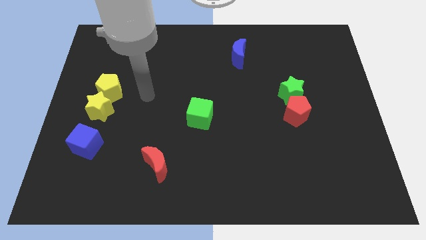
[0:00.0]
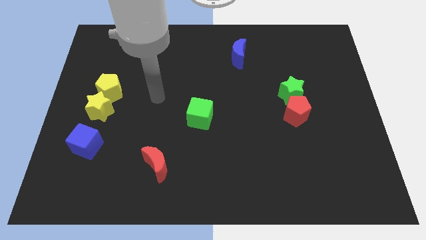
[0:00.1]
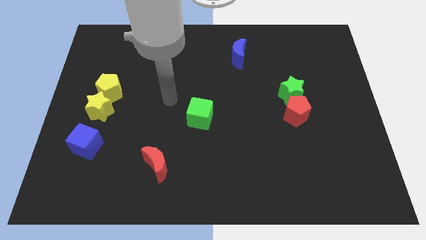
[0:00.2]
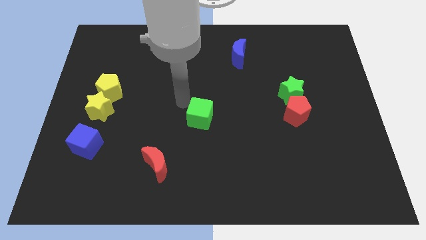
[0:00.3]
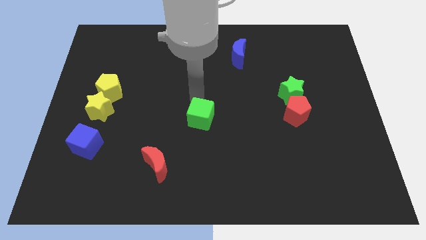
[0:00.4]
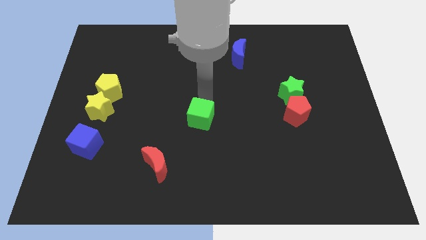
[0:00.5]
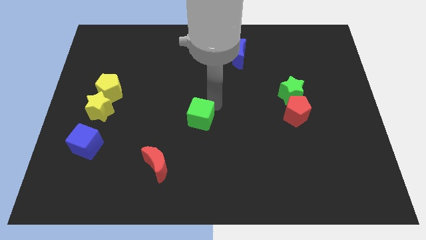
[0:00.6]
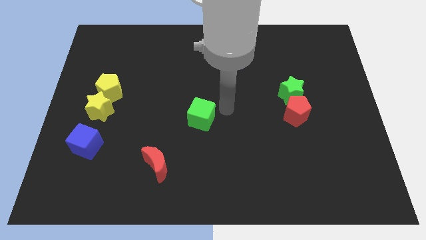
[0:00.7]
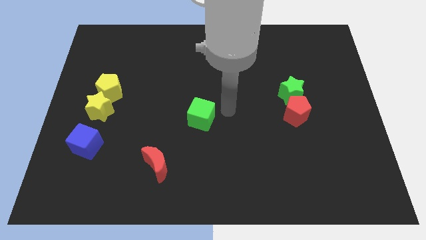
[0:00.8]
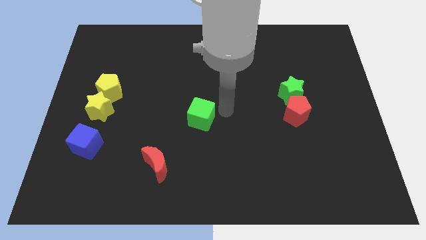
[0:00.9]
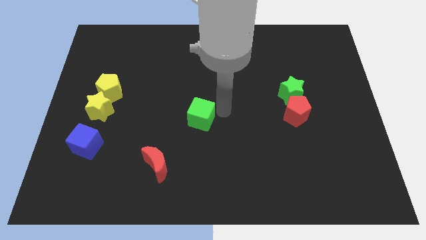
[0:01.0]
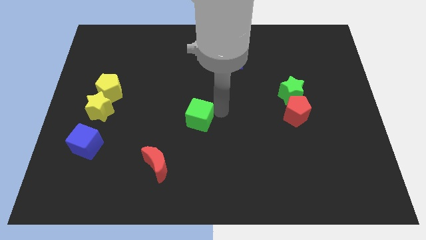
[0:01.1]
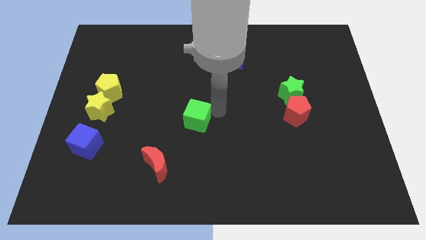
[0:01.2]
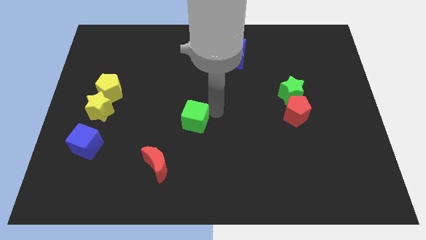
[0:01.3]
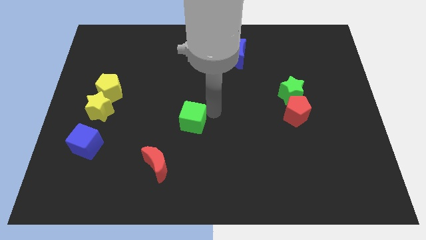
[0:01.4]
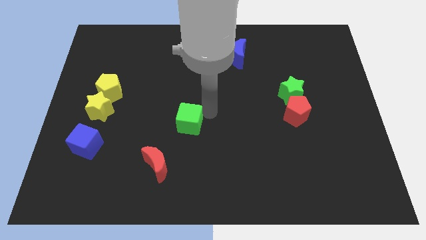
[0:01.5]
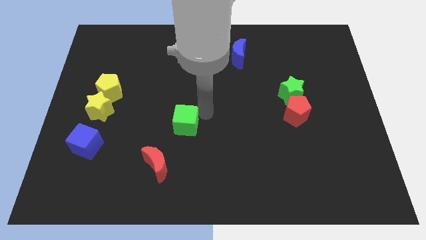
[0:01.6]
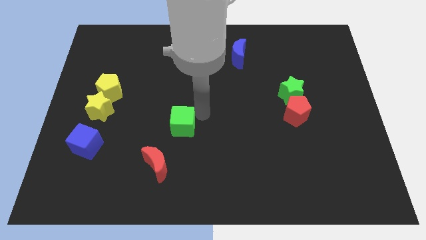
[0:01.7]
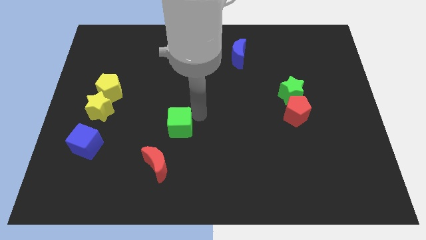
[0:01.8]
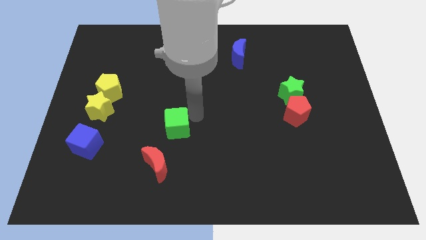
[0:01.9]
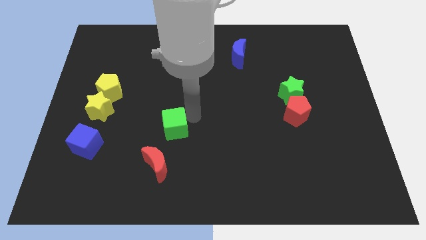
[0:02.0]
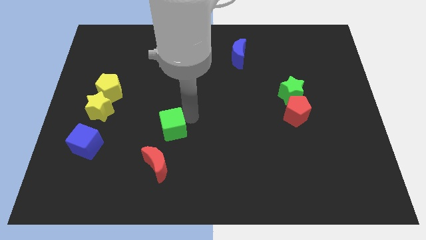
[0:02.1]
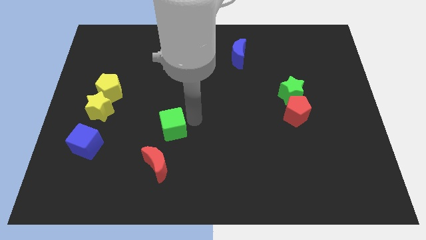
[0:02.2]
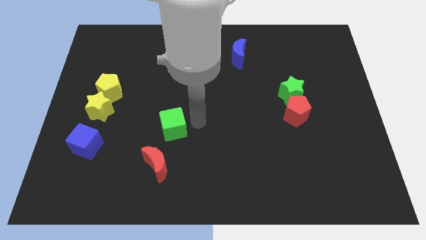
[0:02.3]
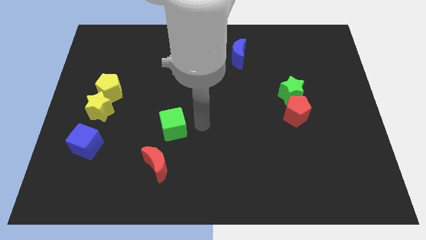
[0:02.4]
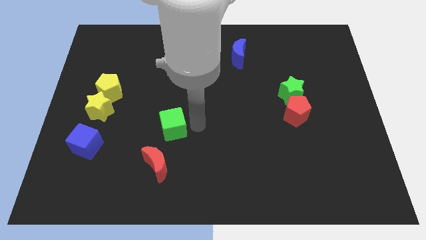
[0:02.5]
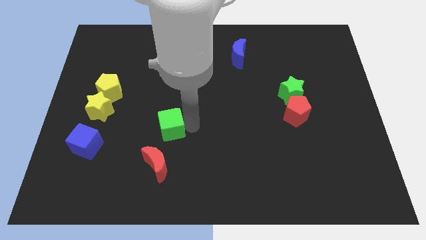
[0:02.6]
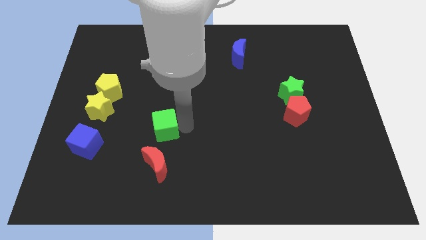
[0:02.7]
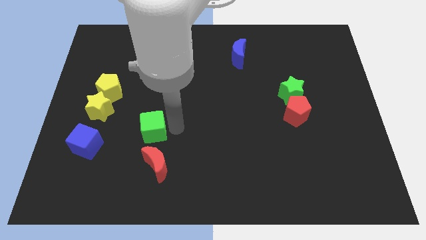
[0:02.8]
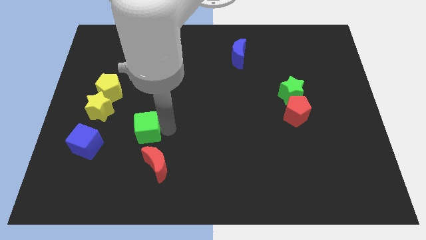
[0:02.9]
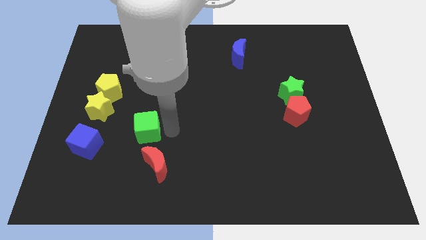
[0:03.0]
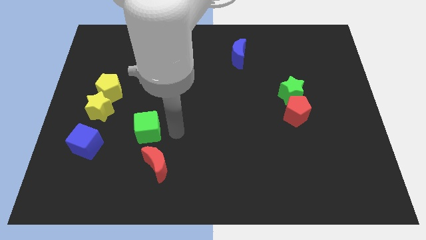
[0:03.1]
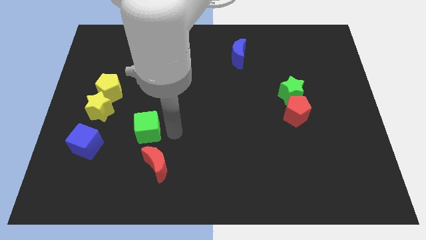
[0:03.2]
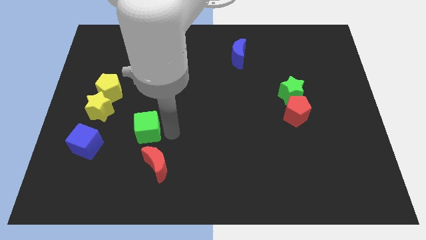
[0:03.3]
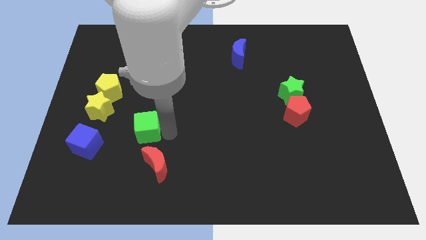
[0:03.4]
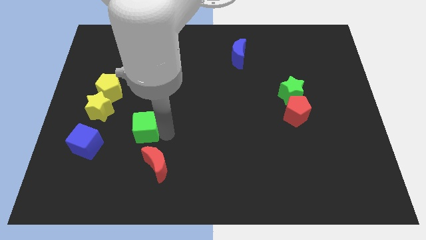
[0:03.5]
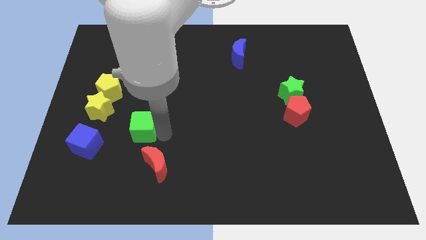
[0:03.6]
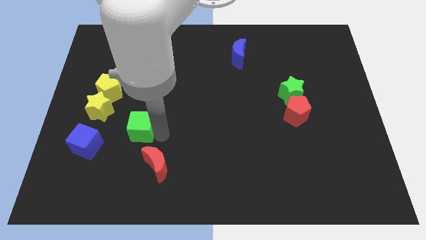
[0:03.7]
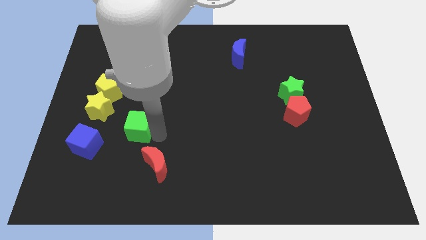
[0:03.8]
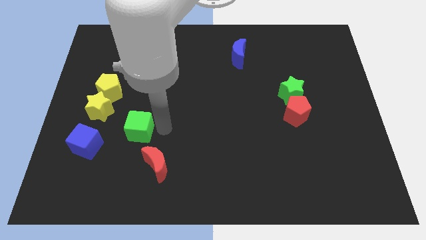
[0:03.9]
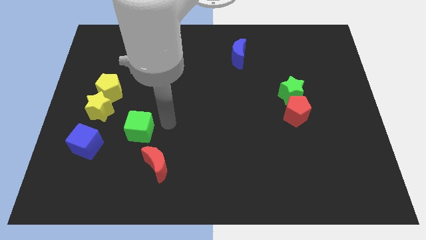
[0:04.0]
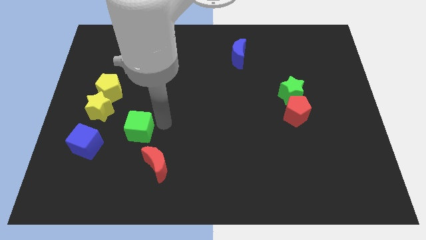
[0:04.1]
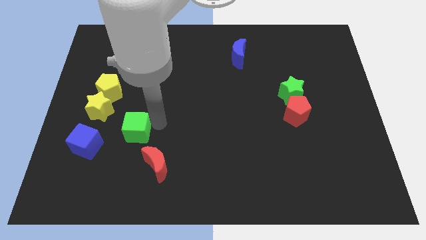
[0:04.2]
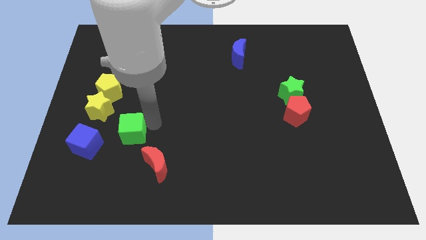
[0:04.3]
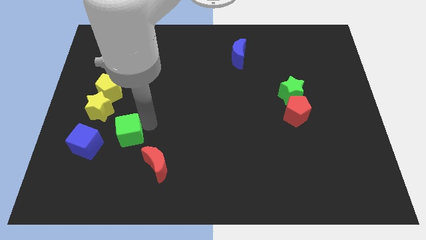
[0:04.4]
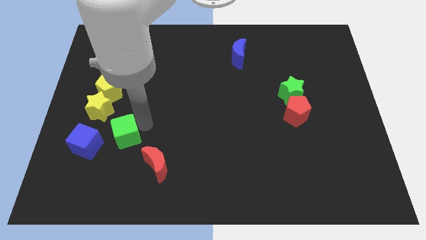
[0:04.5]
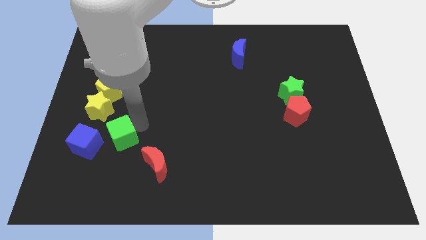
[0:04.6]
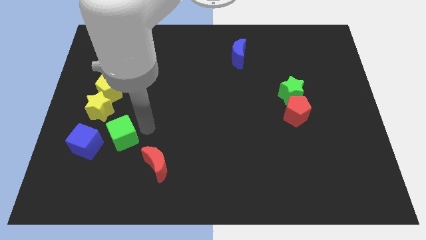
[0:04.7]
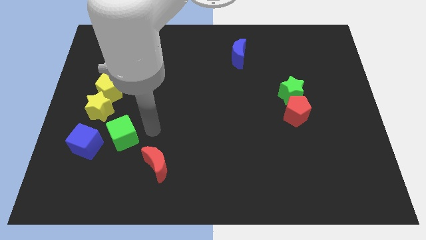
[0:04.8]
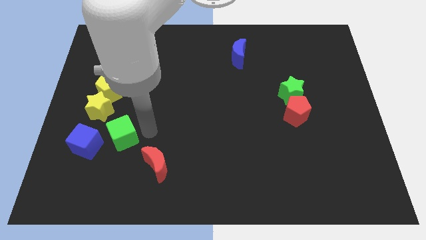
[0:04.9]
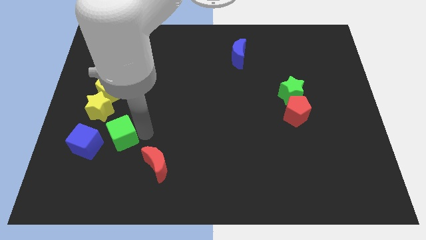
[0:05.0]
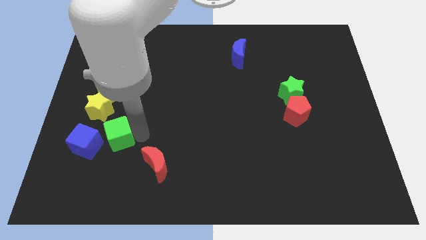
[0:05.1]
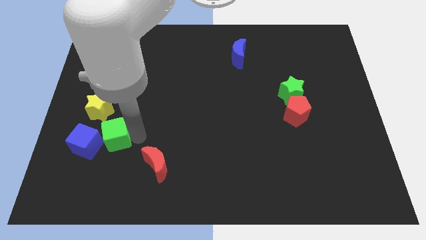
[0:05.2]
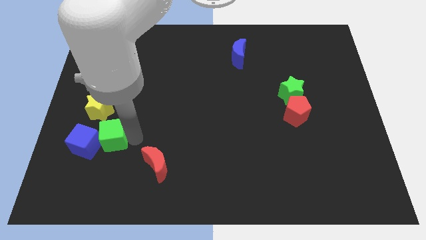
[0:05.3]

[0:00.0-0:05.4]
push the green cube close to the blue cube

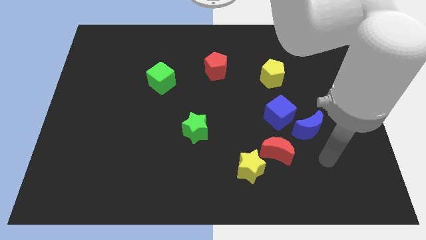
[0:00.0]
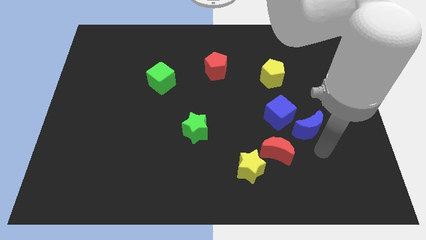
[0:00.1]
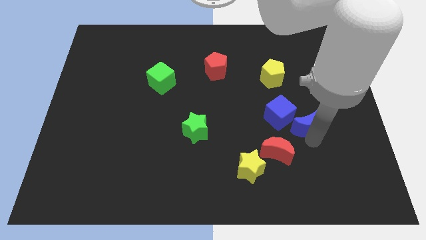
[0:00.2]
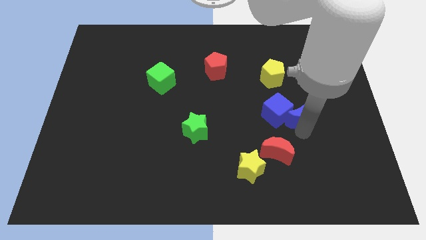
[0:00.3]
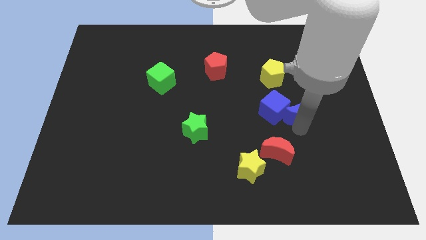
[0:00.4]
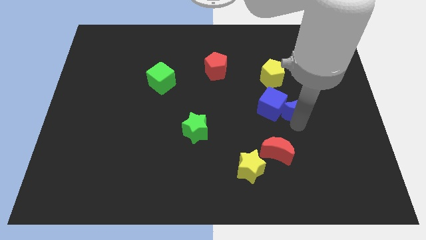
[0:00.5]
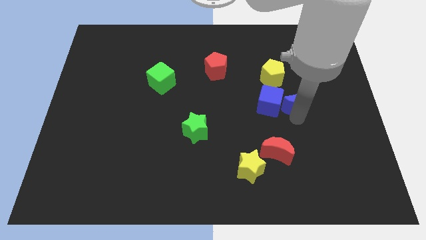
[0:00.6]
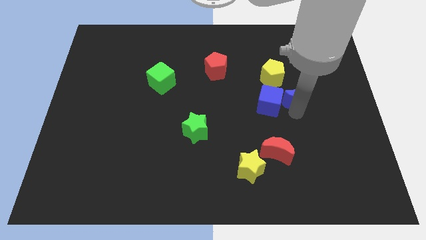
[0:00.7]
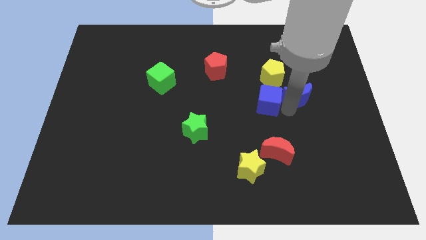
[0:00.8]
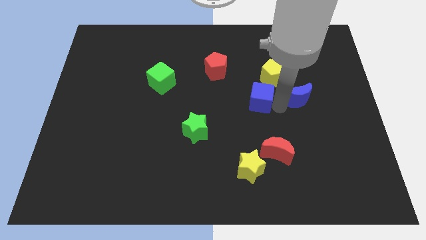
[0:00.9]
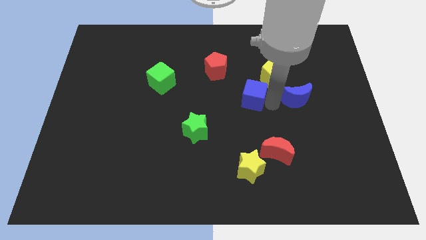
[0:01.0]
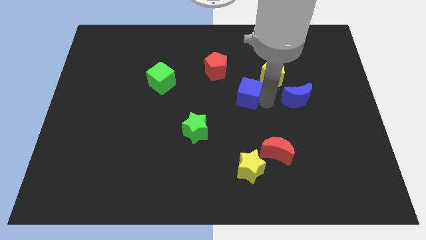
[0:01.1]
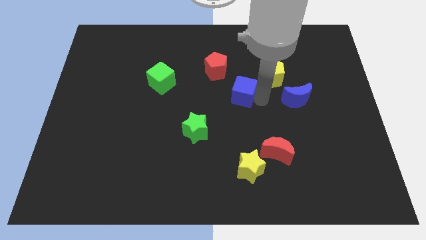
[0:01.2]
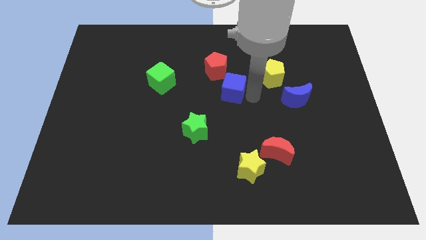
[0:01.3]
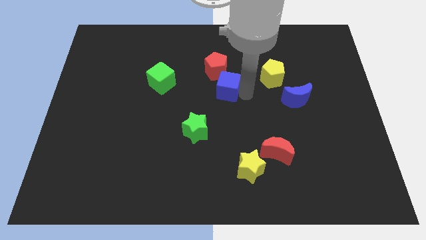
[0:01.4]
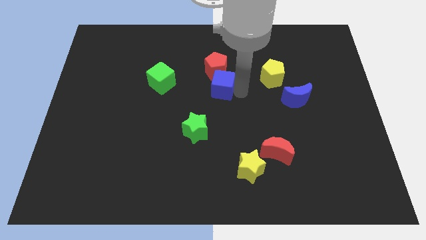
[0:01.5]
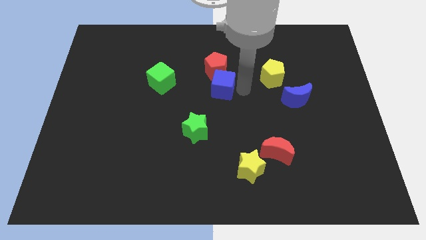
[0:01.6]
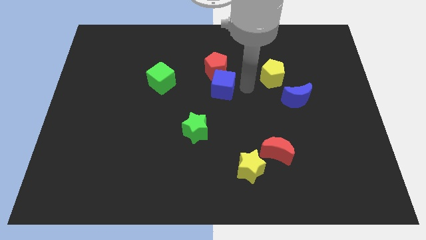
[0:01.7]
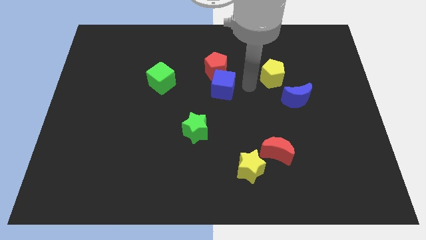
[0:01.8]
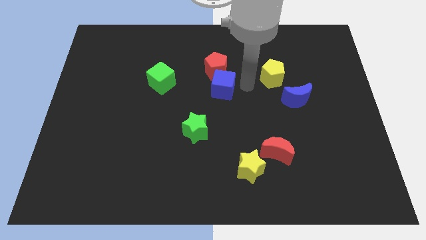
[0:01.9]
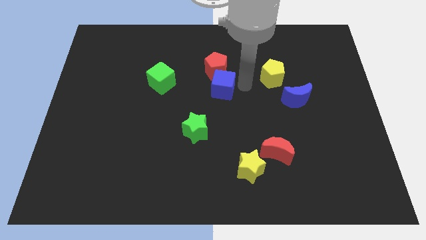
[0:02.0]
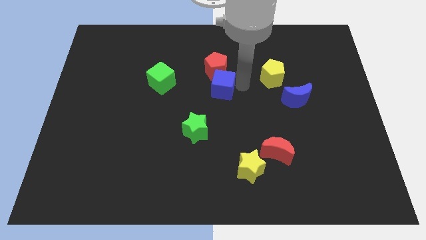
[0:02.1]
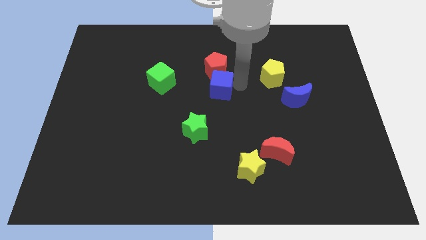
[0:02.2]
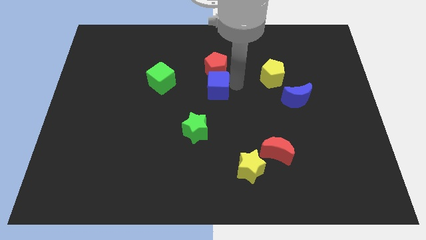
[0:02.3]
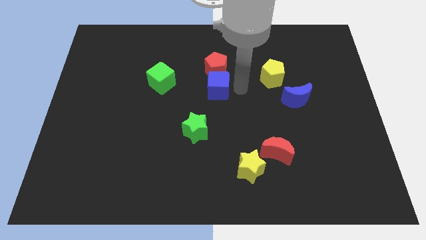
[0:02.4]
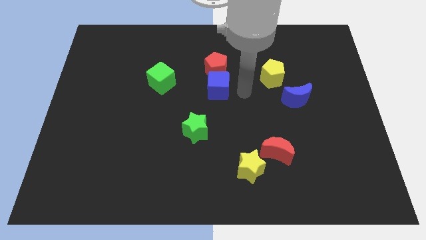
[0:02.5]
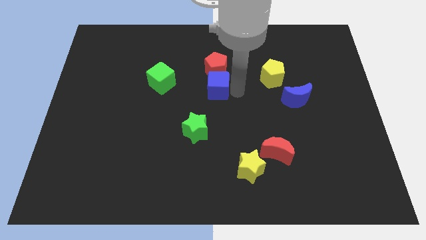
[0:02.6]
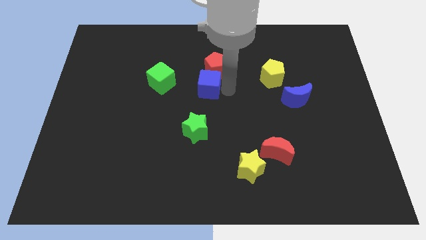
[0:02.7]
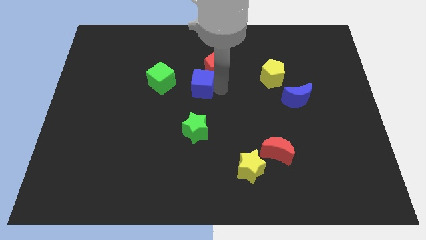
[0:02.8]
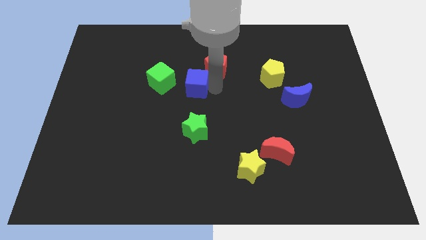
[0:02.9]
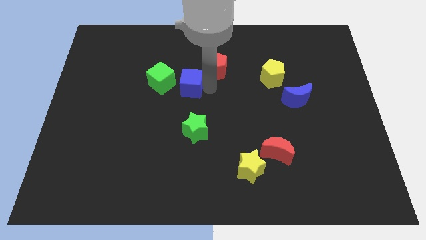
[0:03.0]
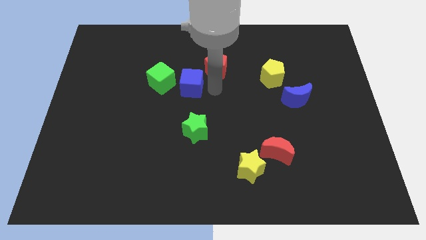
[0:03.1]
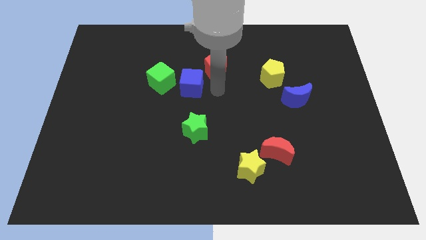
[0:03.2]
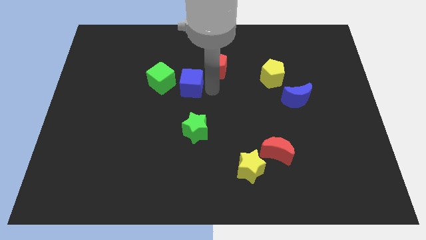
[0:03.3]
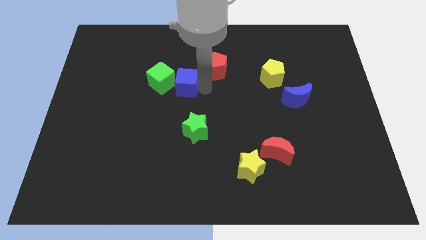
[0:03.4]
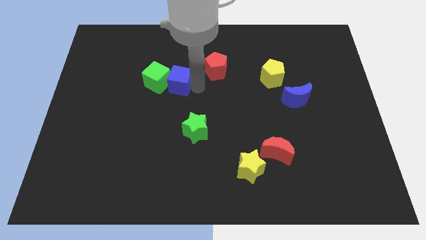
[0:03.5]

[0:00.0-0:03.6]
push the blue cube next to the green cube
